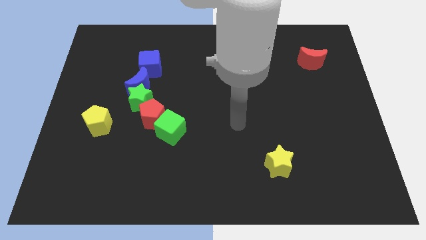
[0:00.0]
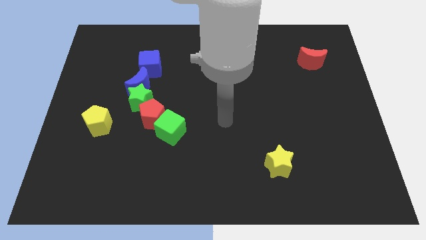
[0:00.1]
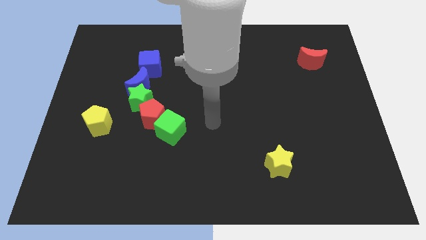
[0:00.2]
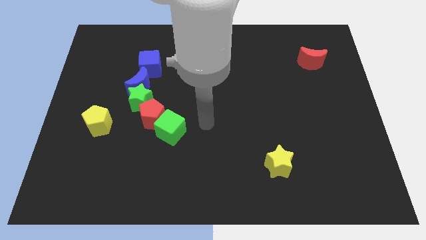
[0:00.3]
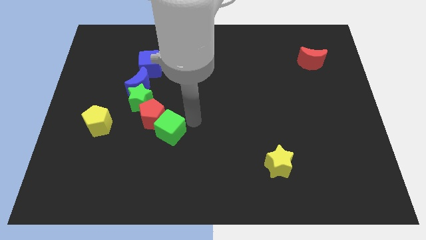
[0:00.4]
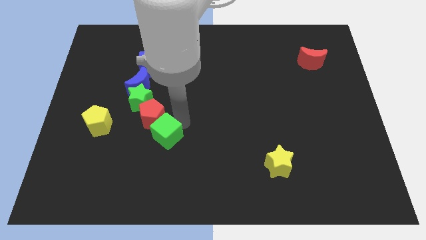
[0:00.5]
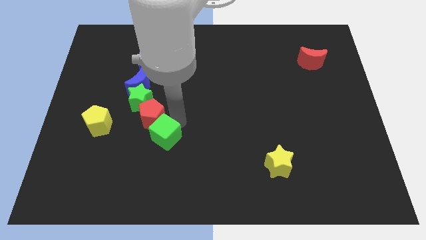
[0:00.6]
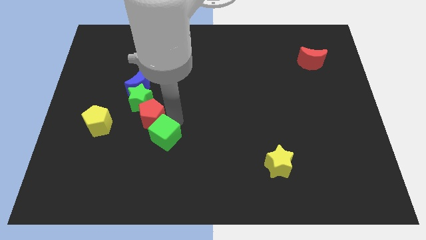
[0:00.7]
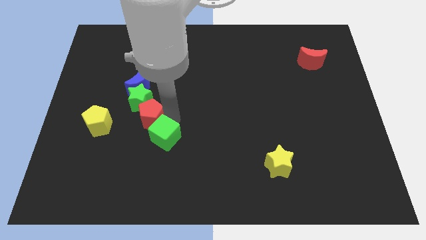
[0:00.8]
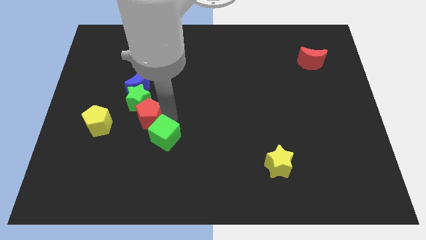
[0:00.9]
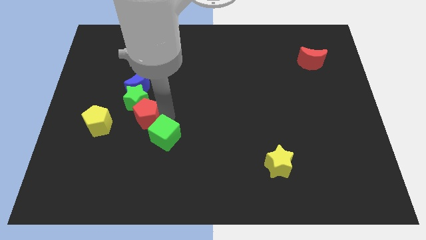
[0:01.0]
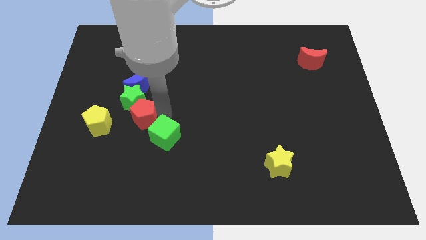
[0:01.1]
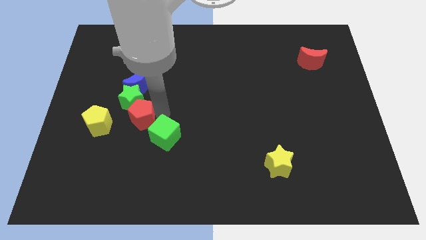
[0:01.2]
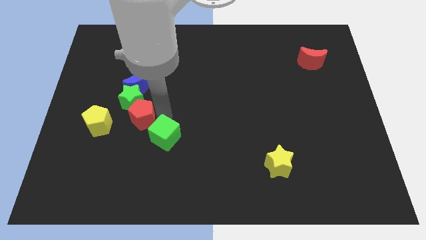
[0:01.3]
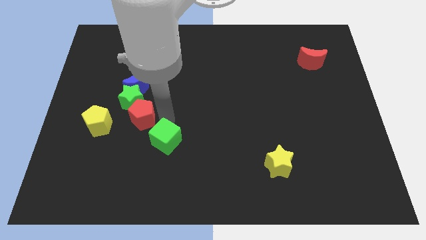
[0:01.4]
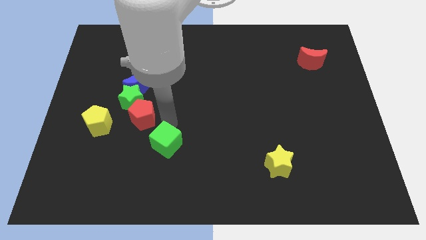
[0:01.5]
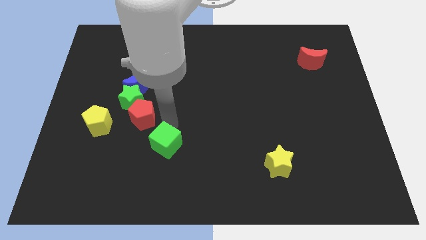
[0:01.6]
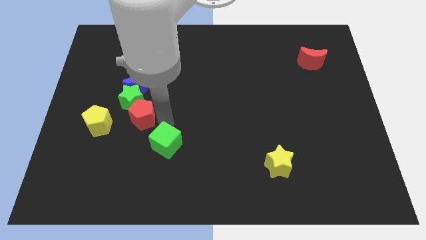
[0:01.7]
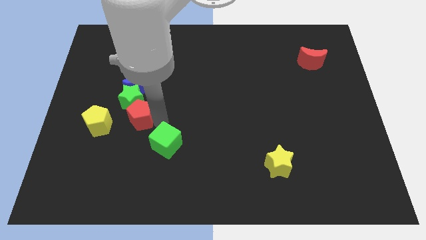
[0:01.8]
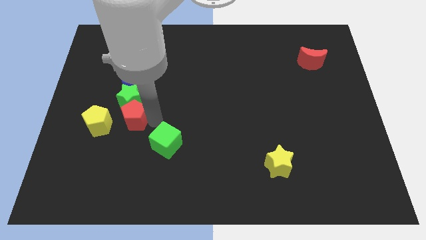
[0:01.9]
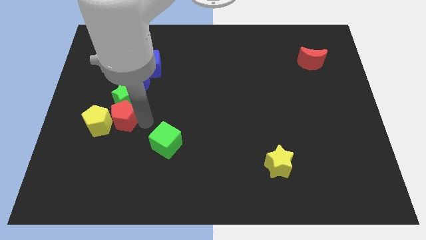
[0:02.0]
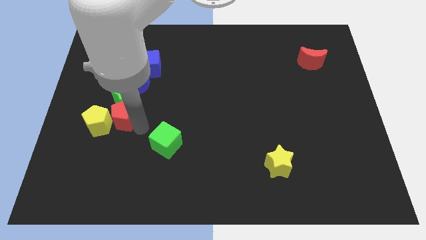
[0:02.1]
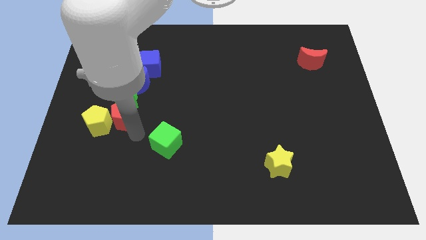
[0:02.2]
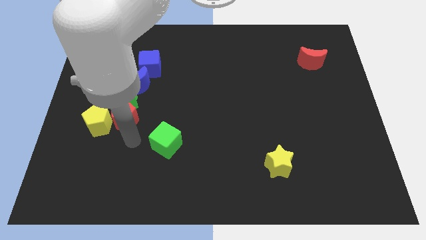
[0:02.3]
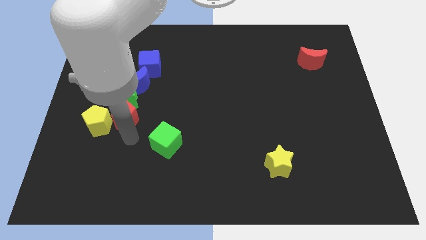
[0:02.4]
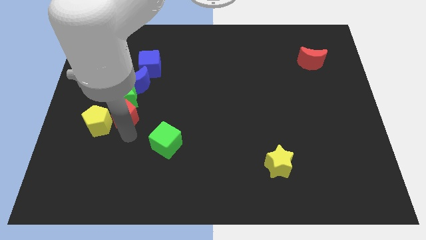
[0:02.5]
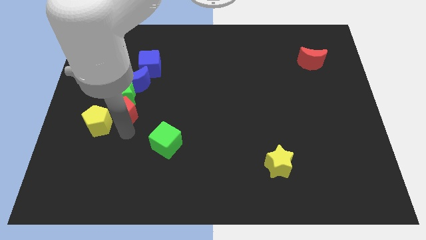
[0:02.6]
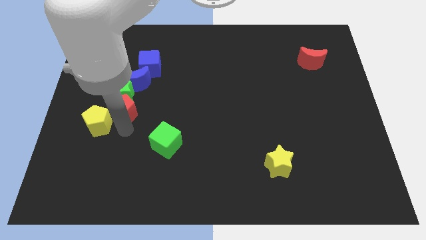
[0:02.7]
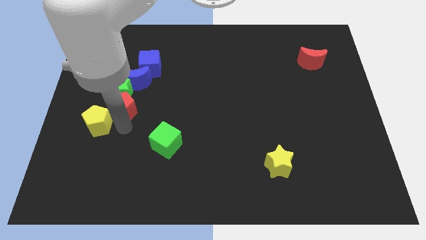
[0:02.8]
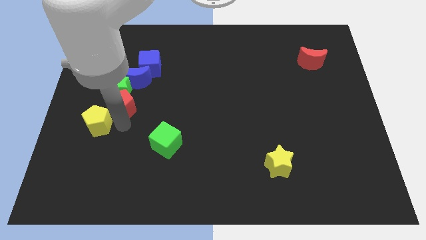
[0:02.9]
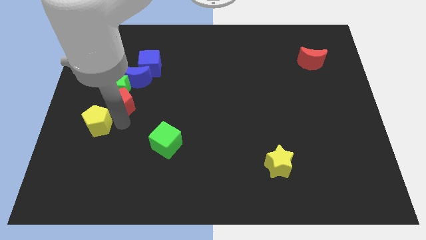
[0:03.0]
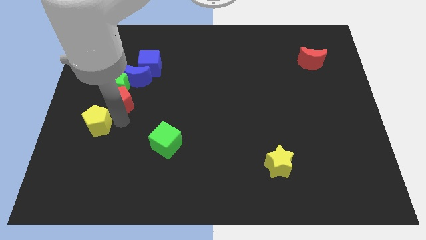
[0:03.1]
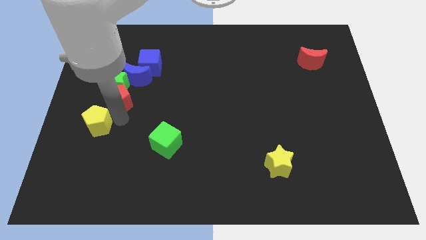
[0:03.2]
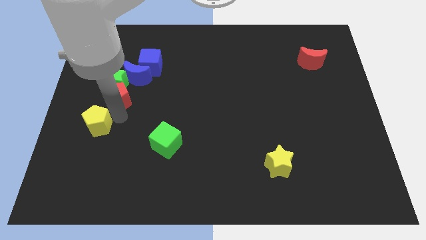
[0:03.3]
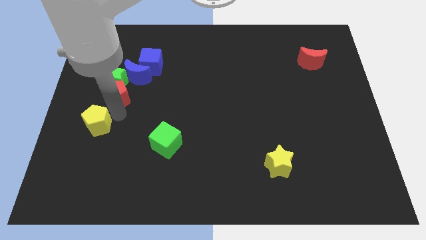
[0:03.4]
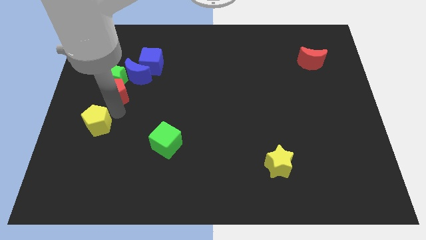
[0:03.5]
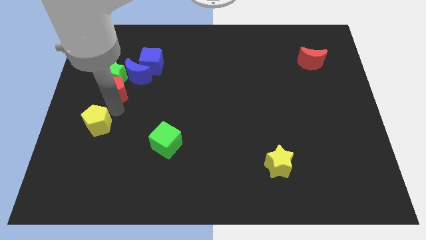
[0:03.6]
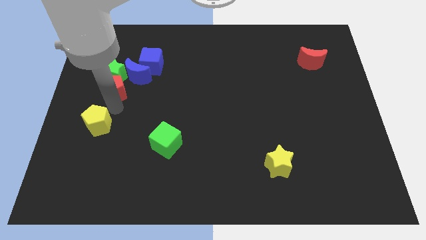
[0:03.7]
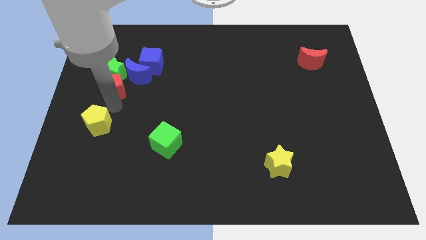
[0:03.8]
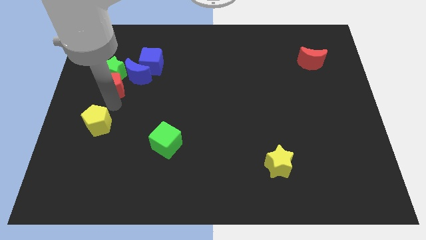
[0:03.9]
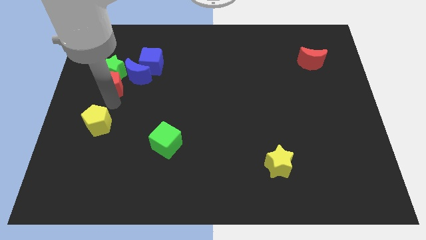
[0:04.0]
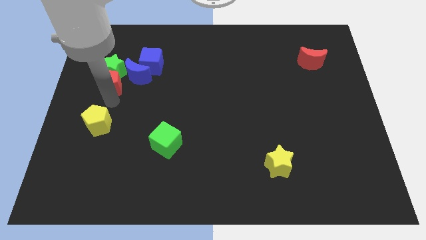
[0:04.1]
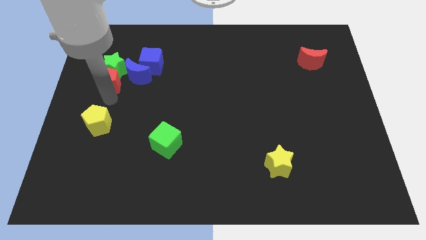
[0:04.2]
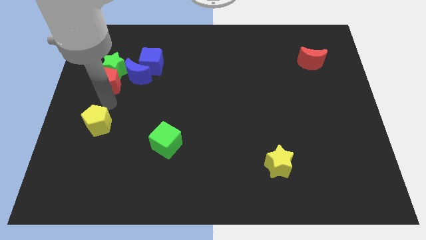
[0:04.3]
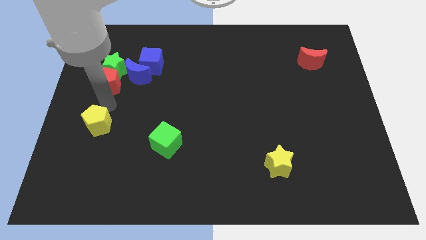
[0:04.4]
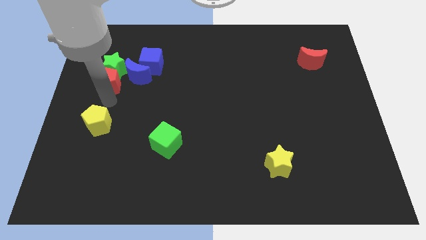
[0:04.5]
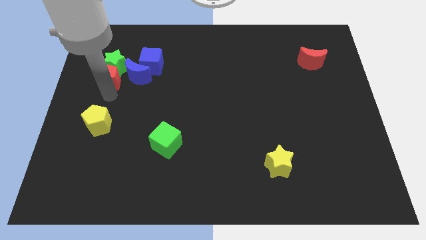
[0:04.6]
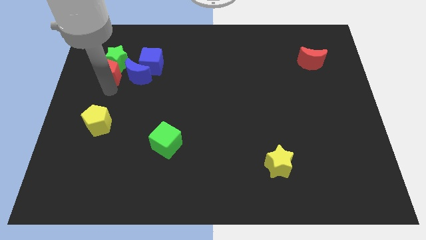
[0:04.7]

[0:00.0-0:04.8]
move the red pentagon to the left of the blue cube

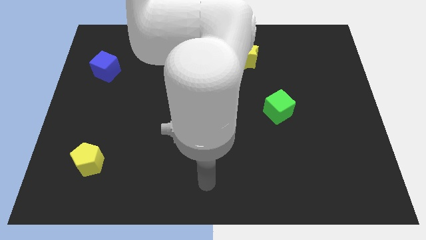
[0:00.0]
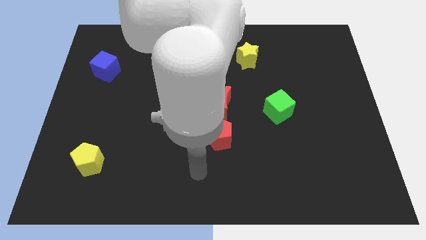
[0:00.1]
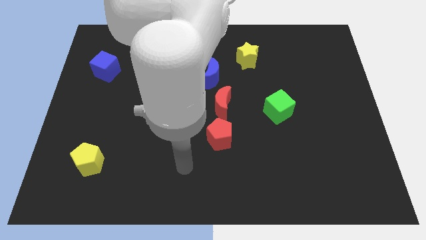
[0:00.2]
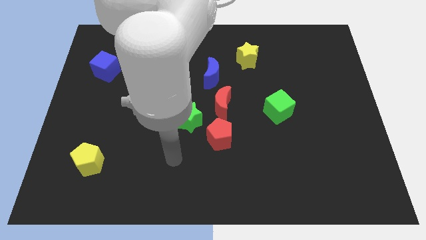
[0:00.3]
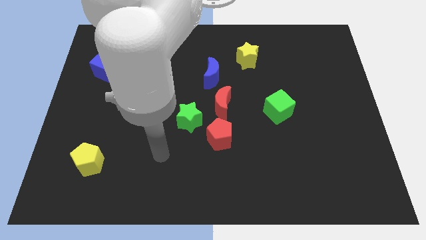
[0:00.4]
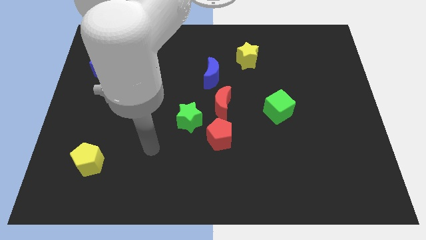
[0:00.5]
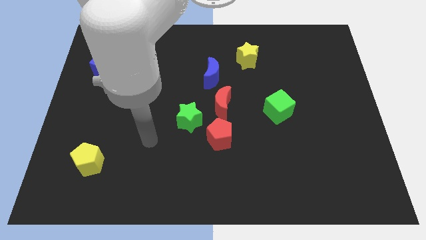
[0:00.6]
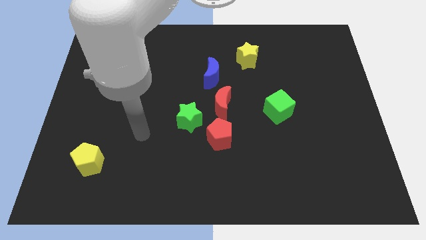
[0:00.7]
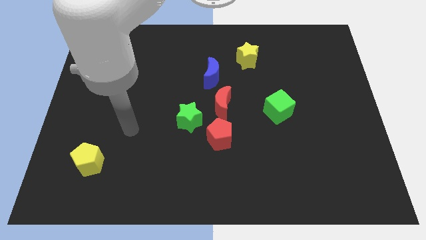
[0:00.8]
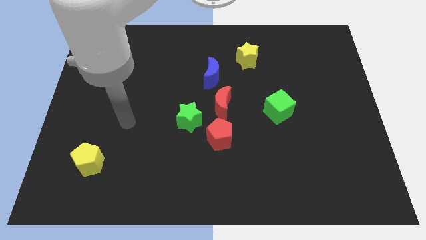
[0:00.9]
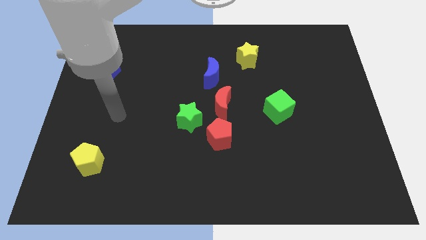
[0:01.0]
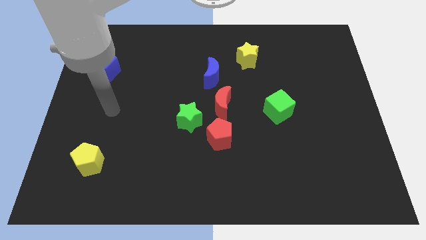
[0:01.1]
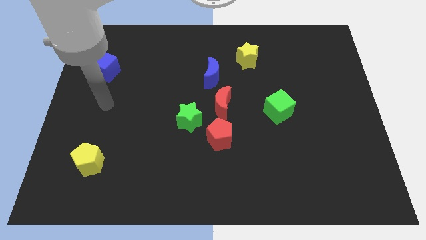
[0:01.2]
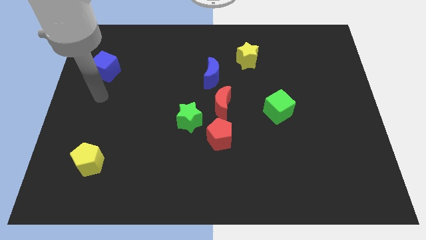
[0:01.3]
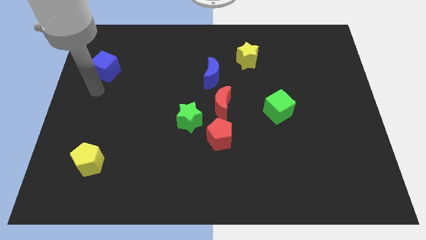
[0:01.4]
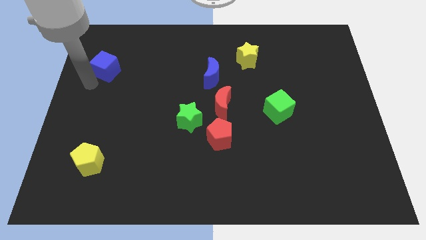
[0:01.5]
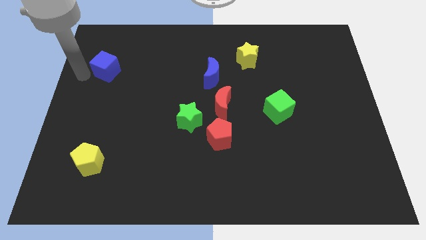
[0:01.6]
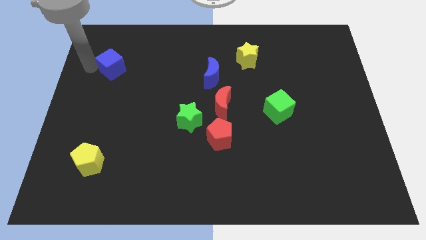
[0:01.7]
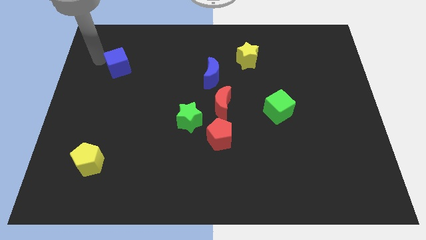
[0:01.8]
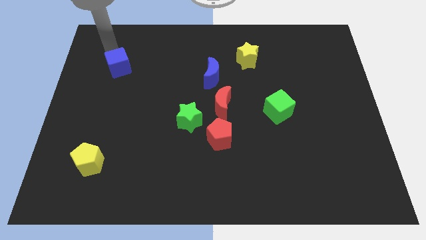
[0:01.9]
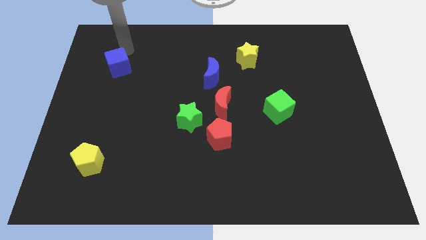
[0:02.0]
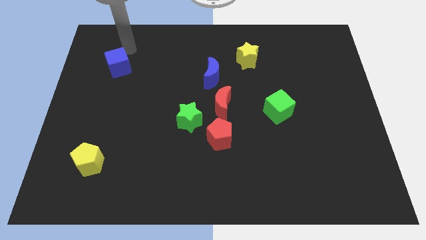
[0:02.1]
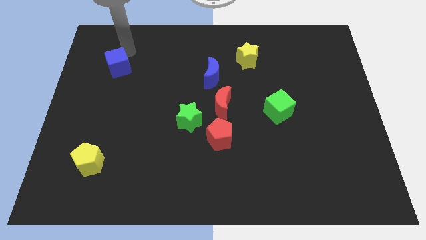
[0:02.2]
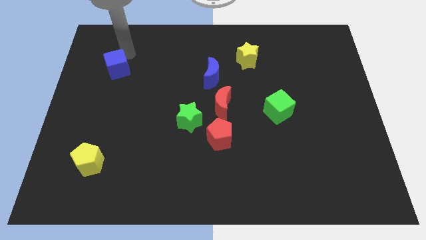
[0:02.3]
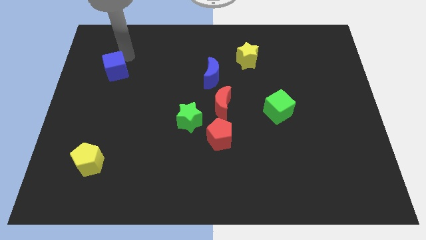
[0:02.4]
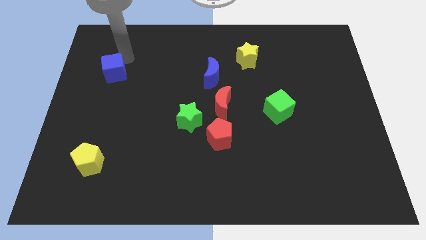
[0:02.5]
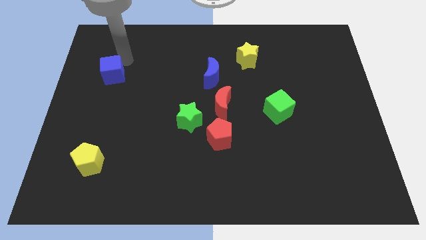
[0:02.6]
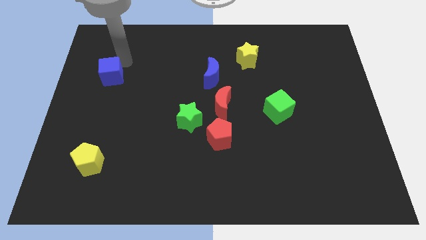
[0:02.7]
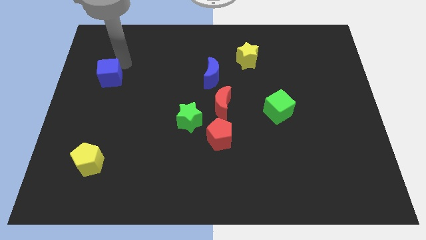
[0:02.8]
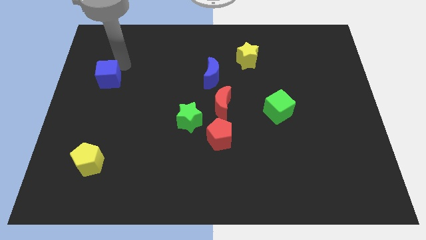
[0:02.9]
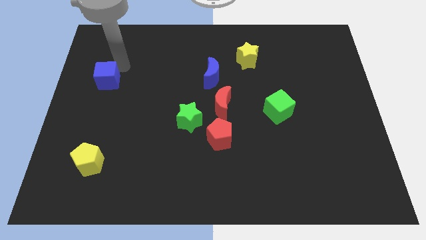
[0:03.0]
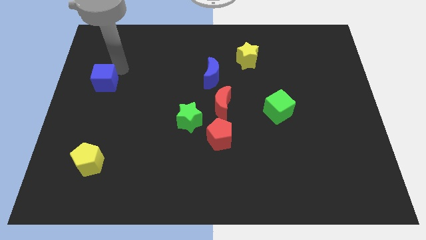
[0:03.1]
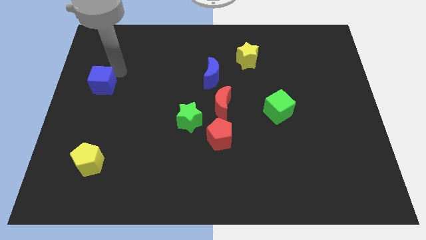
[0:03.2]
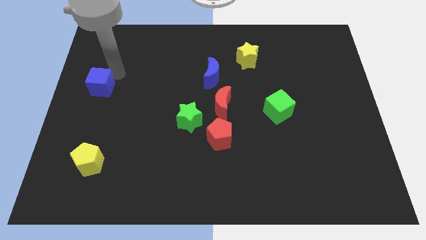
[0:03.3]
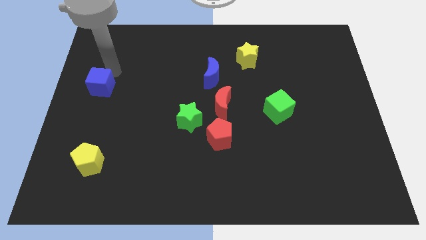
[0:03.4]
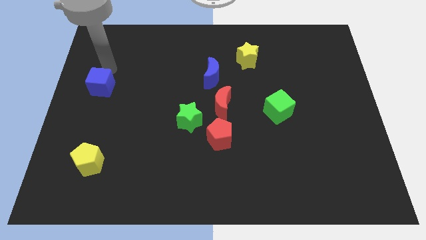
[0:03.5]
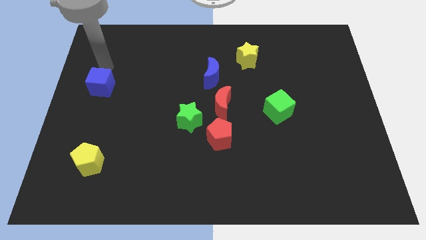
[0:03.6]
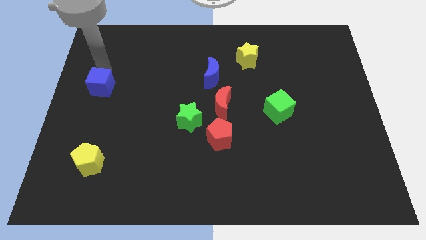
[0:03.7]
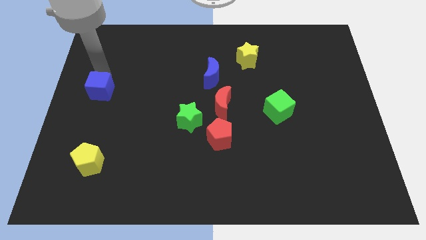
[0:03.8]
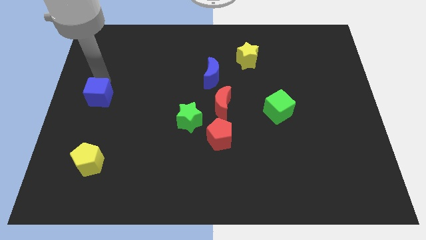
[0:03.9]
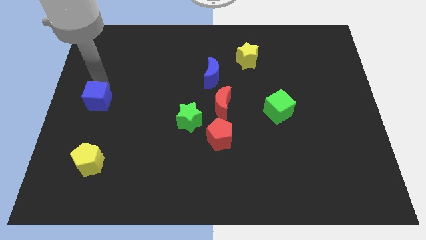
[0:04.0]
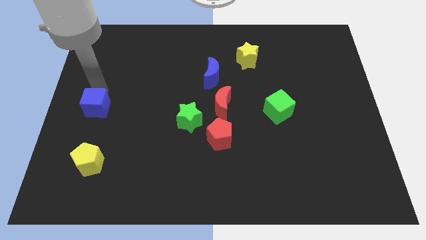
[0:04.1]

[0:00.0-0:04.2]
slide the blue cube to the top of the yellow pentagon
